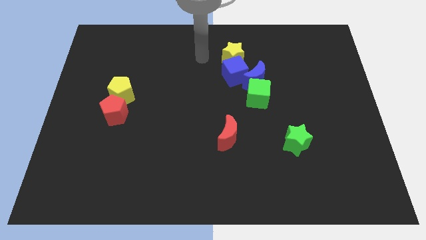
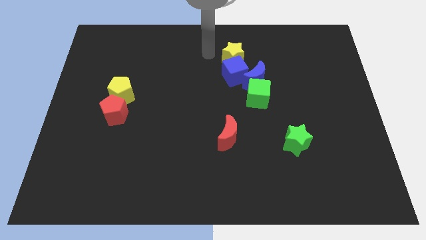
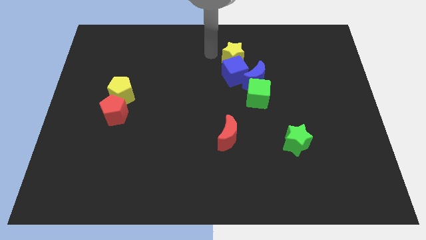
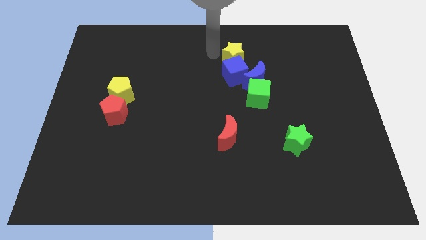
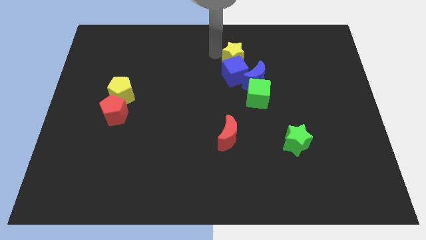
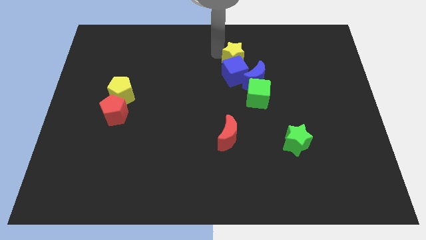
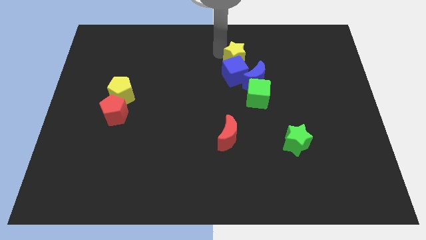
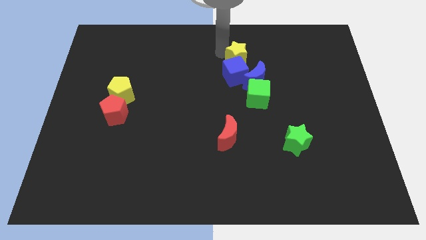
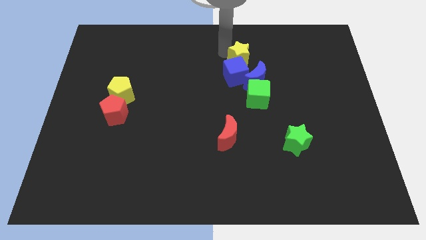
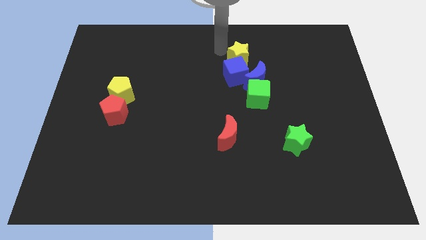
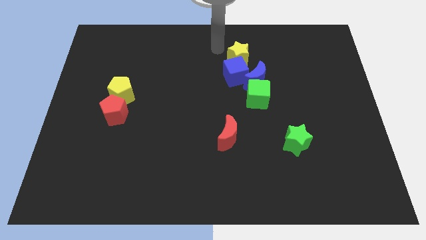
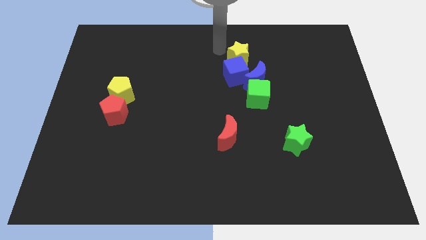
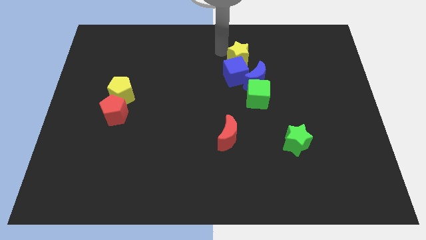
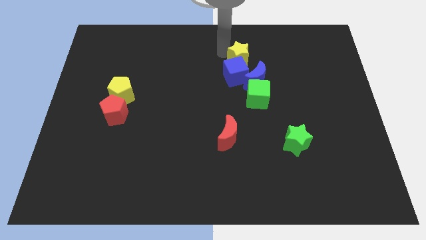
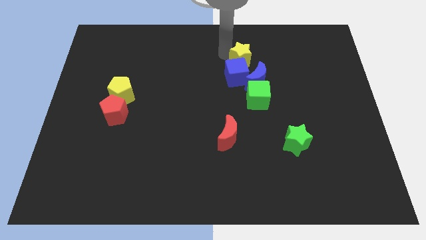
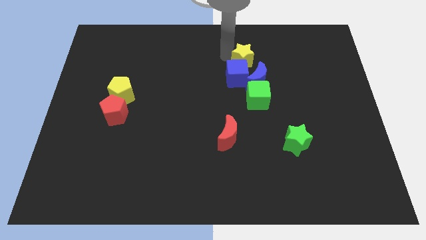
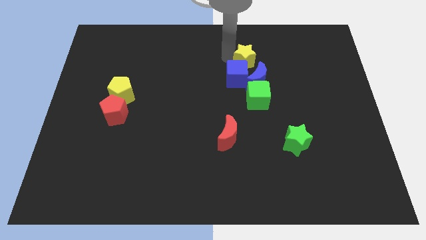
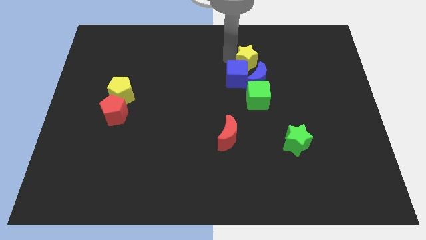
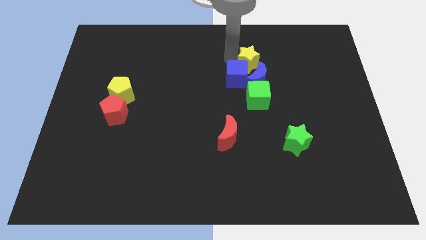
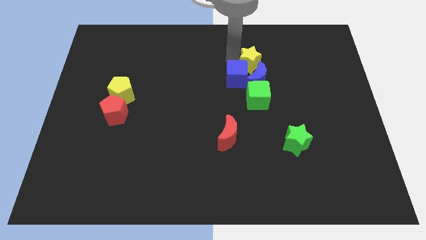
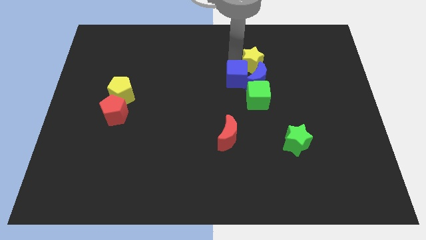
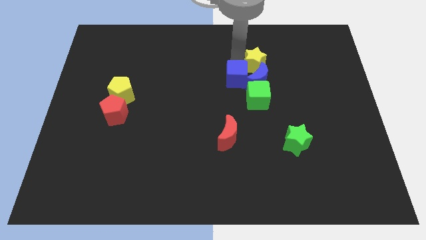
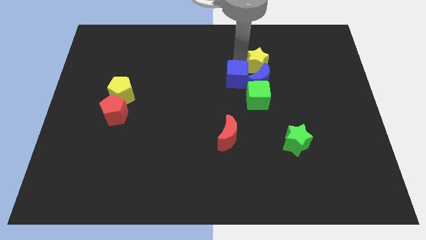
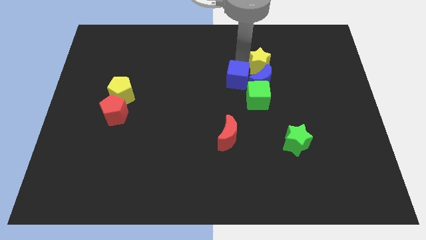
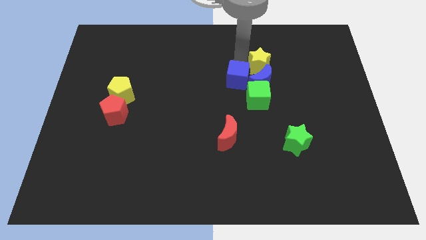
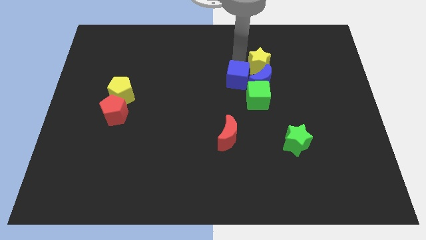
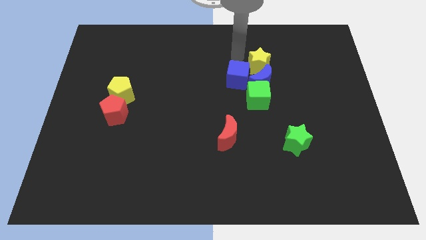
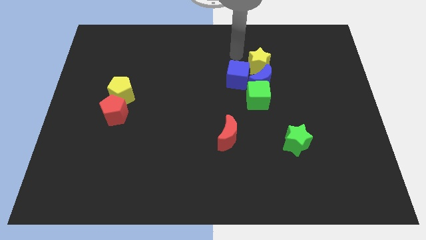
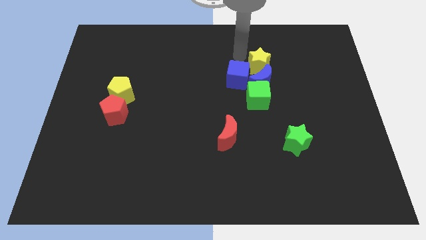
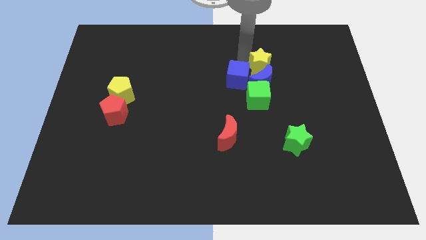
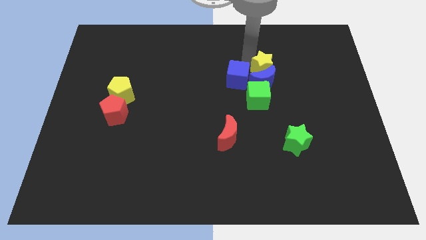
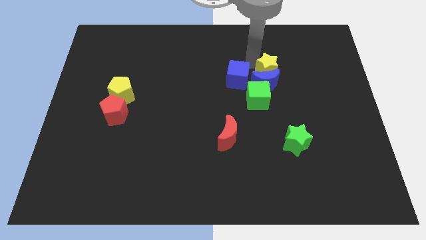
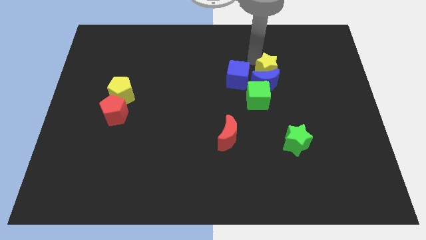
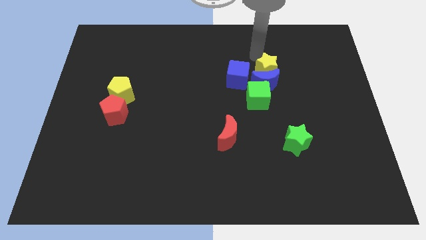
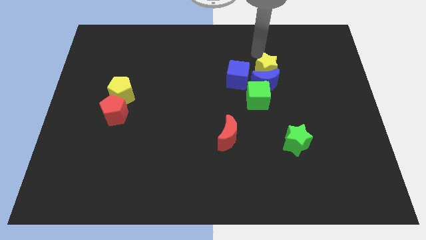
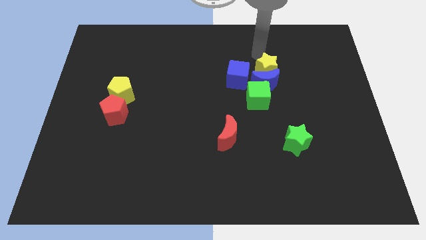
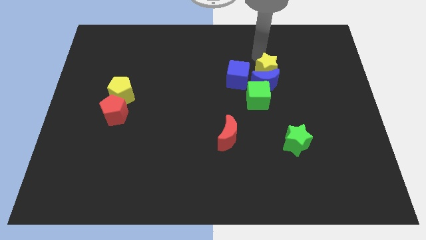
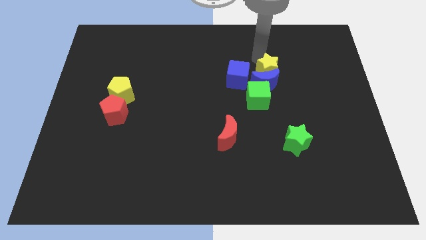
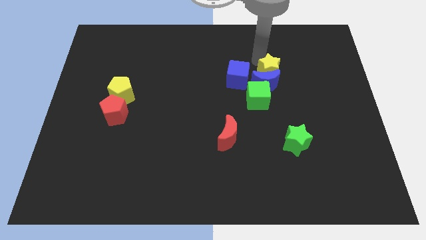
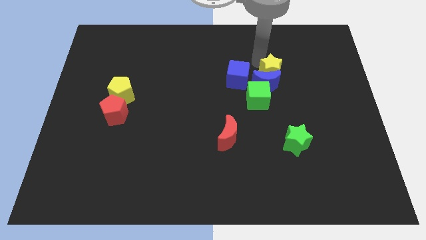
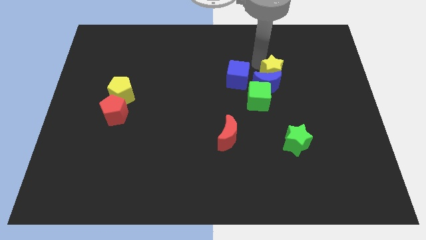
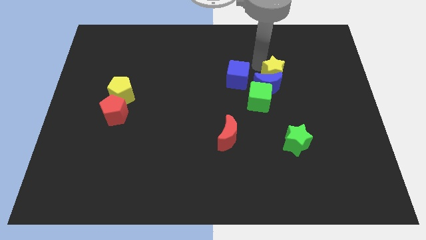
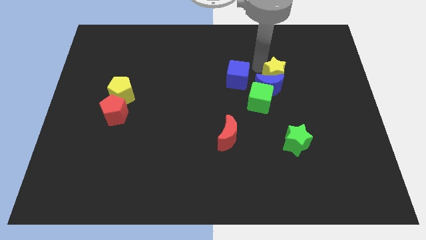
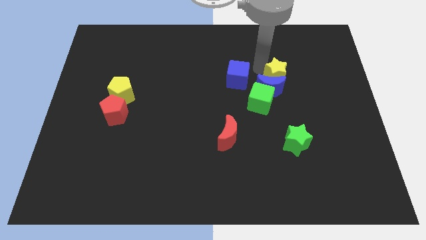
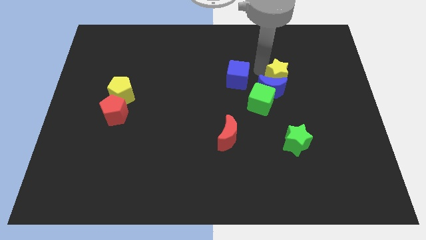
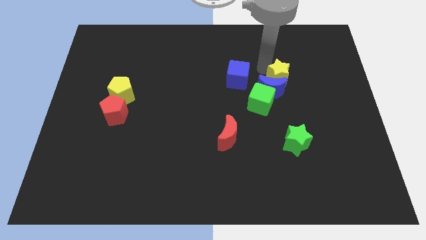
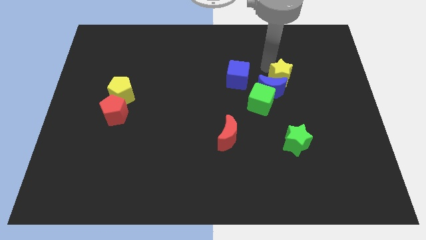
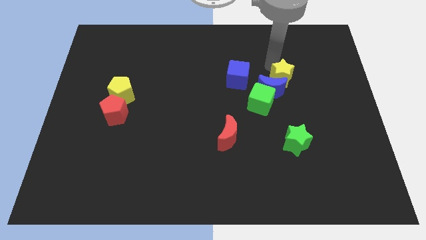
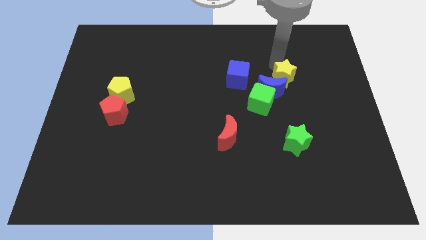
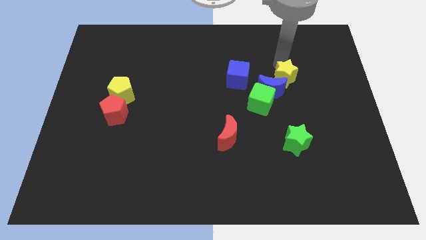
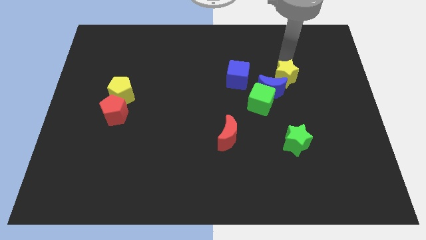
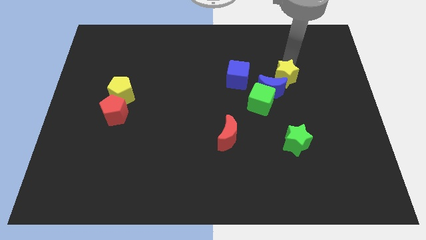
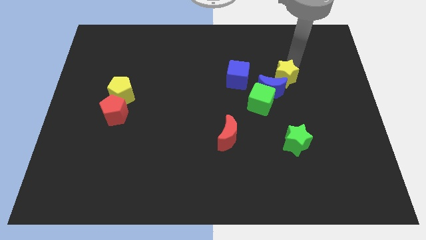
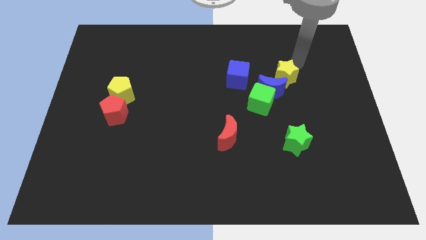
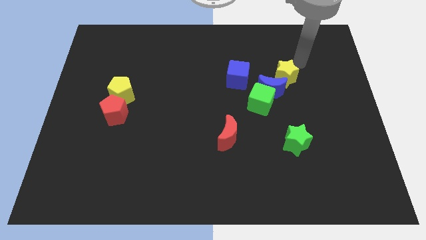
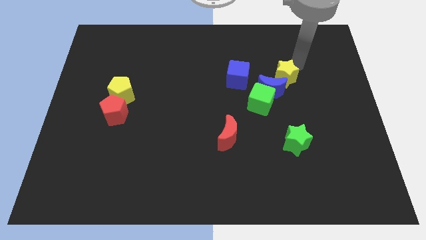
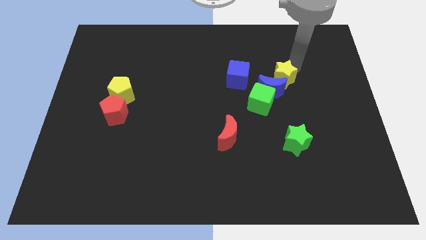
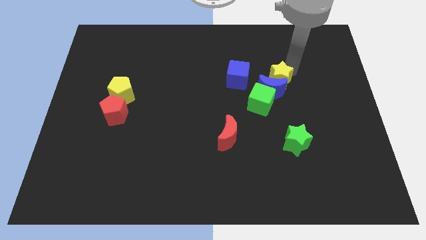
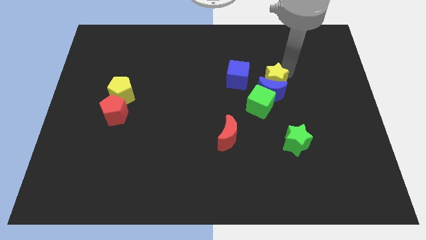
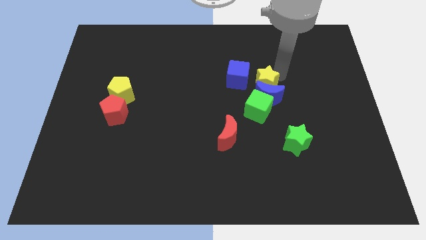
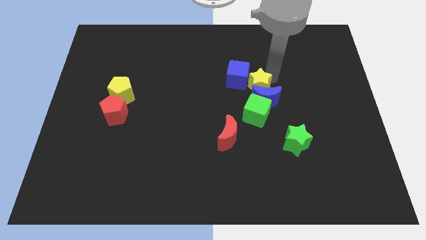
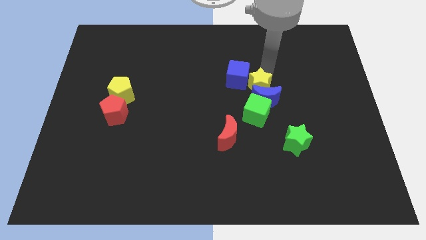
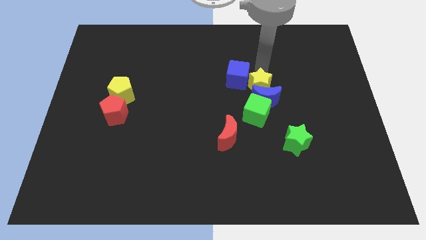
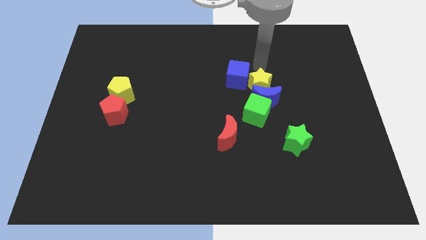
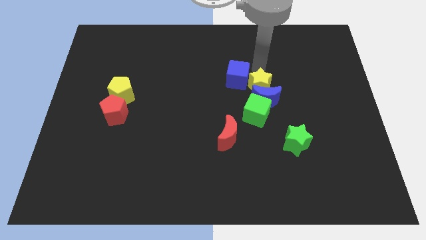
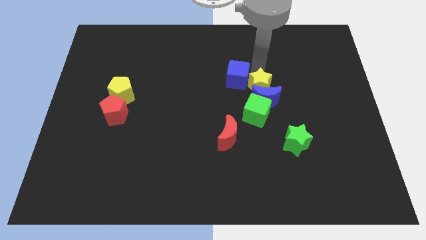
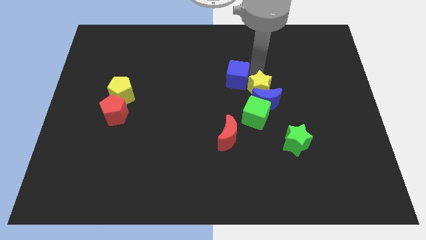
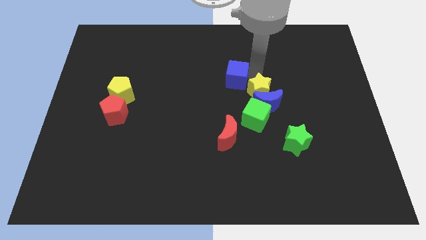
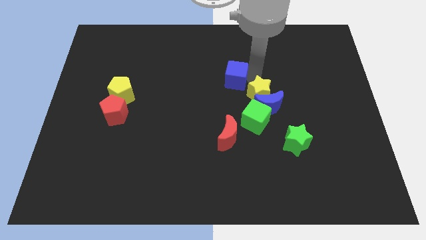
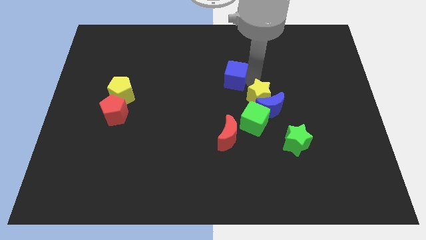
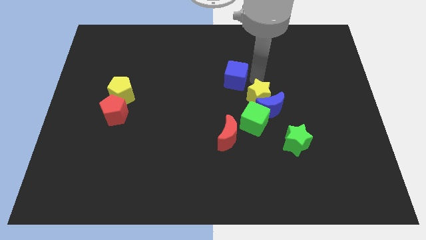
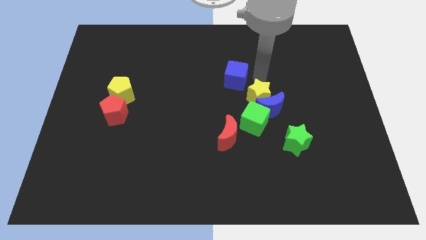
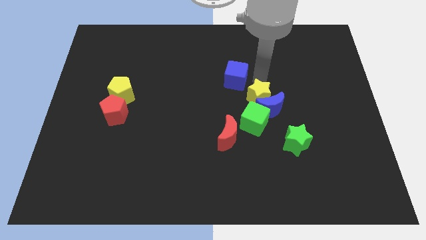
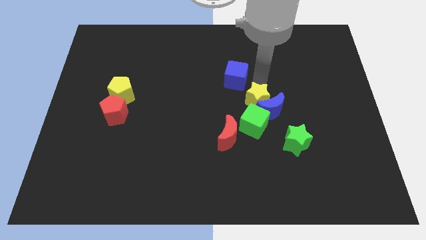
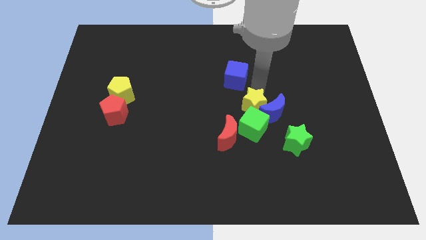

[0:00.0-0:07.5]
move the yellow star to the green cube
